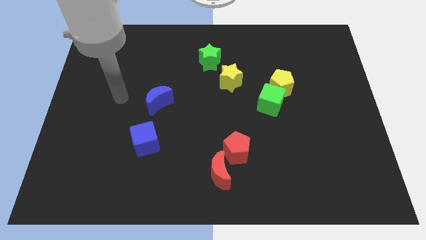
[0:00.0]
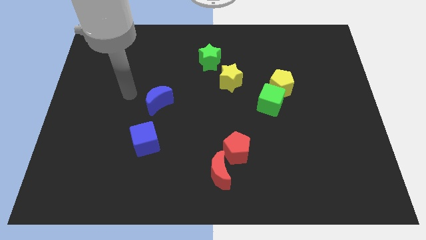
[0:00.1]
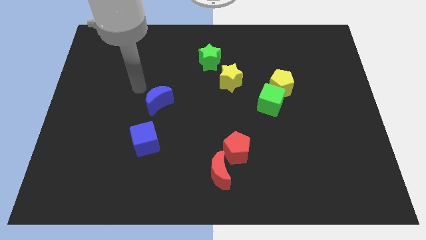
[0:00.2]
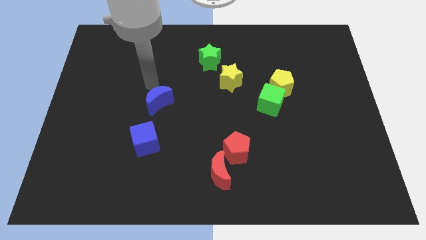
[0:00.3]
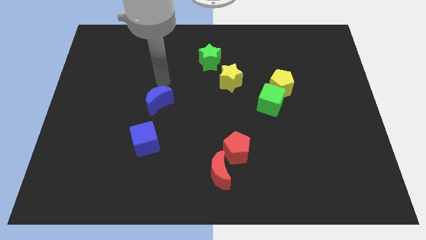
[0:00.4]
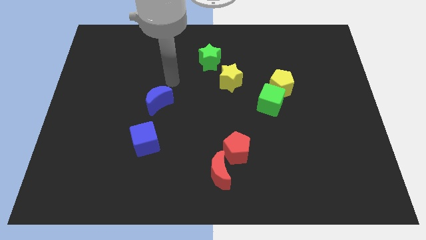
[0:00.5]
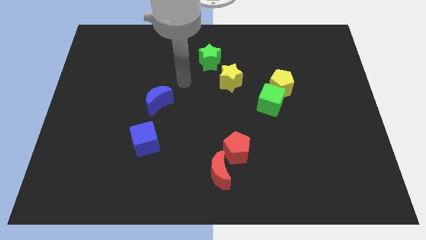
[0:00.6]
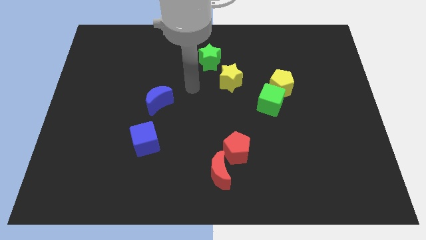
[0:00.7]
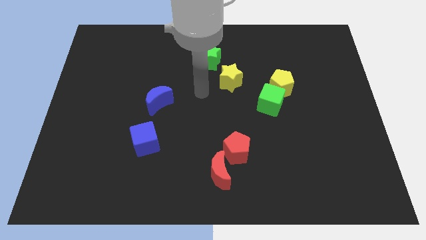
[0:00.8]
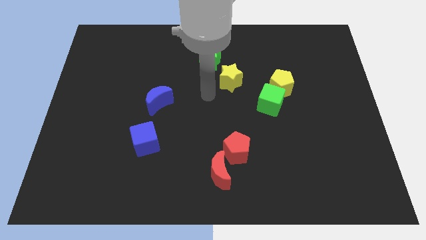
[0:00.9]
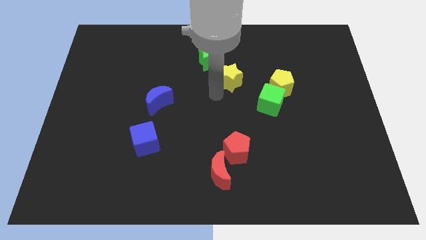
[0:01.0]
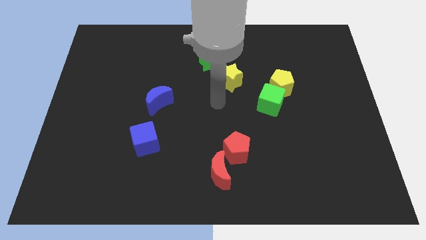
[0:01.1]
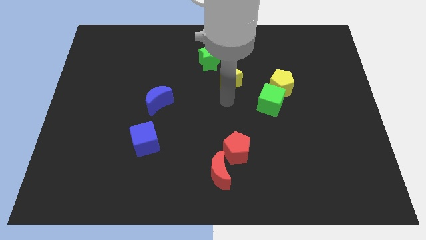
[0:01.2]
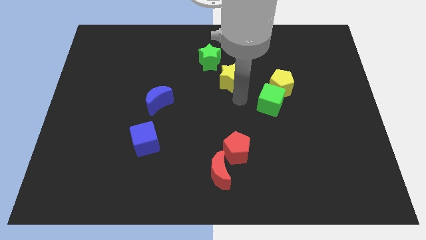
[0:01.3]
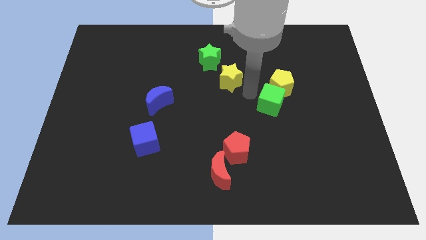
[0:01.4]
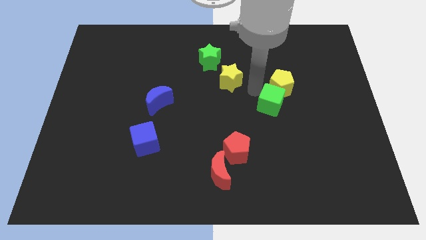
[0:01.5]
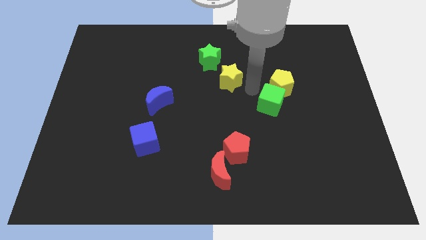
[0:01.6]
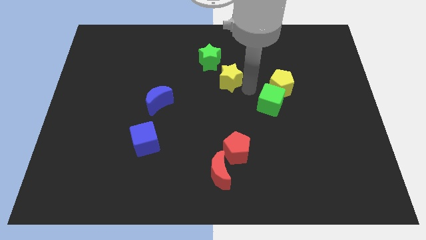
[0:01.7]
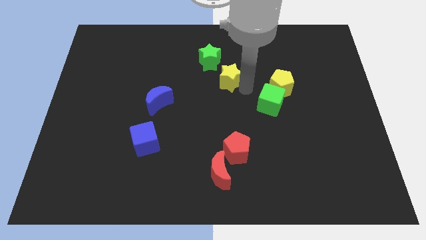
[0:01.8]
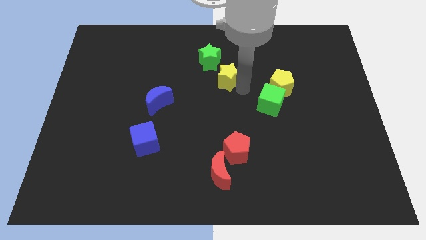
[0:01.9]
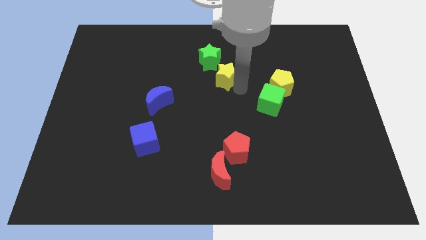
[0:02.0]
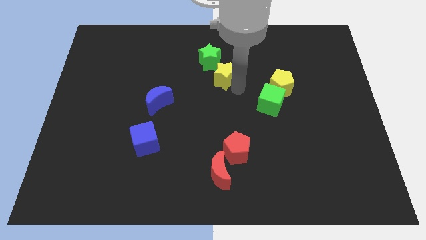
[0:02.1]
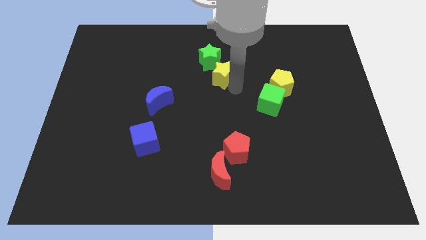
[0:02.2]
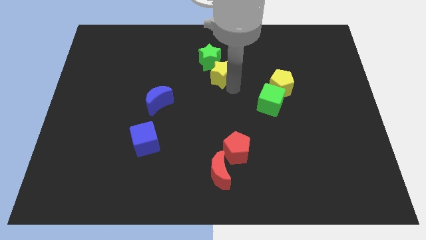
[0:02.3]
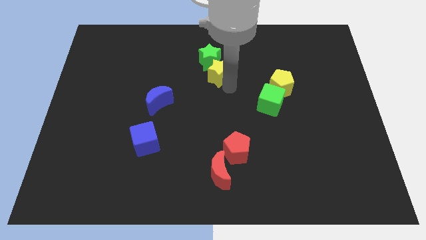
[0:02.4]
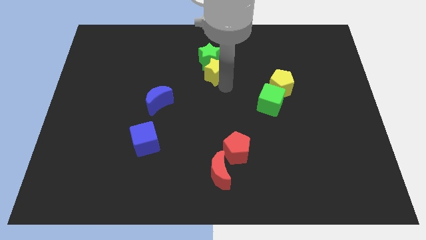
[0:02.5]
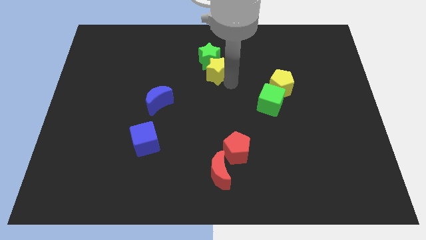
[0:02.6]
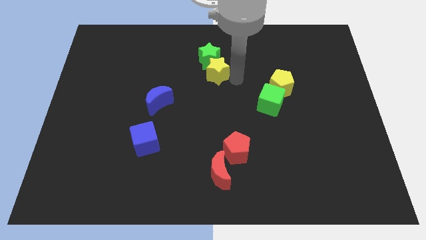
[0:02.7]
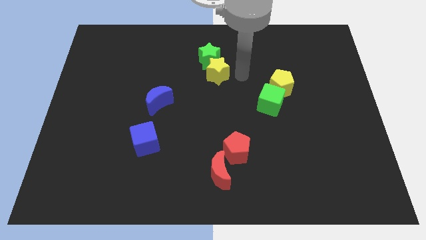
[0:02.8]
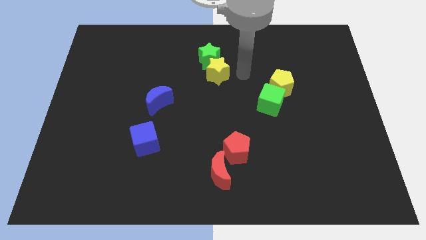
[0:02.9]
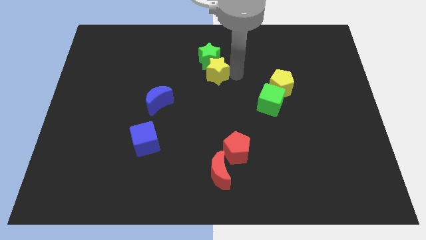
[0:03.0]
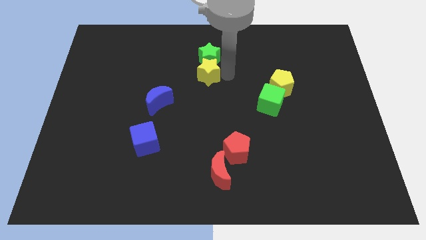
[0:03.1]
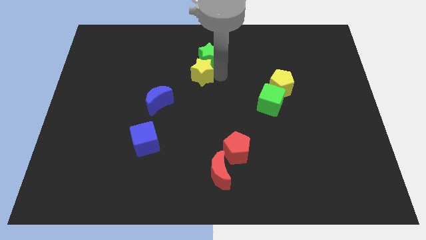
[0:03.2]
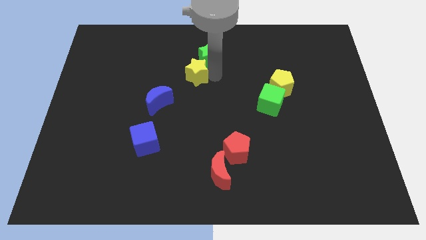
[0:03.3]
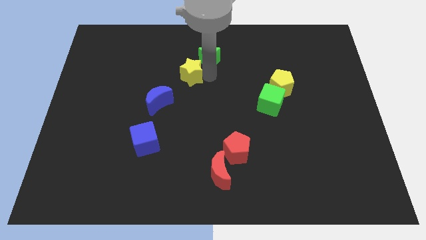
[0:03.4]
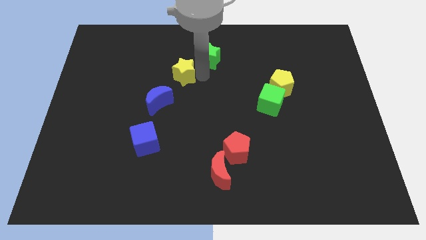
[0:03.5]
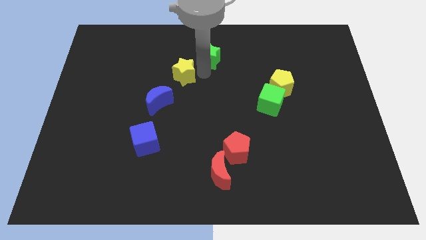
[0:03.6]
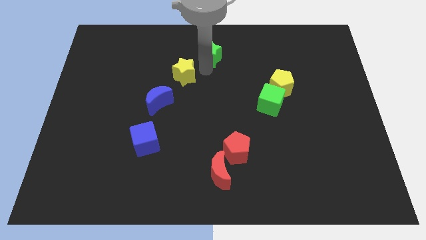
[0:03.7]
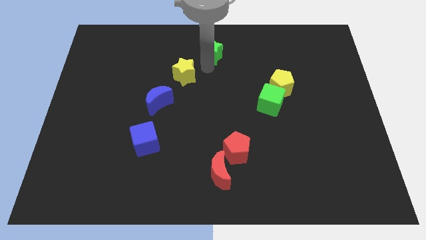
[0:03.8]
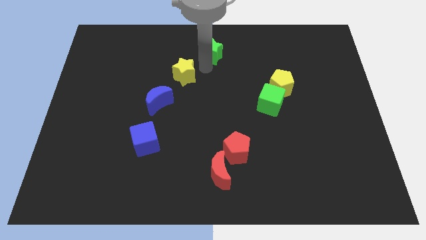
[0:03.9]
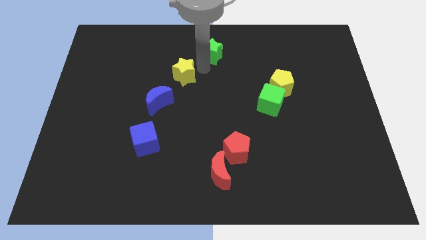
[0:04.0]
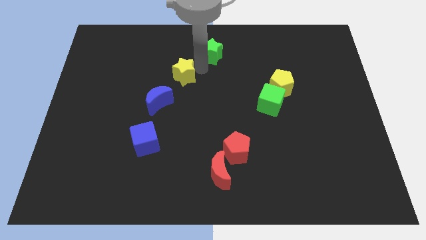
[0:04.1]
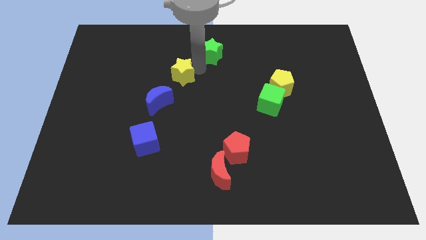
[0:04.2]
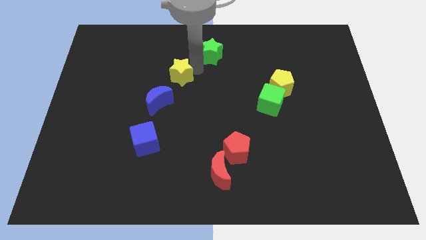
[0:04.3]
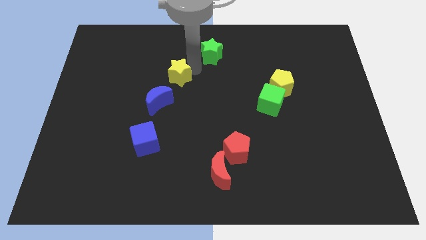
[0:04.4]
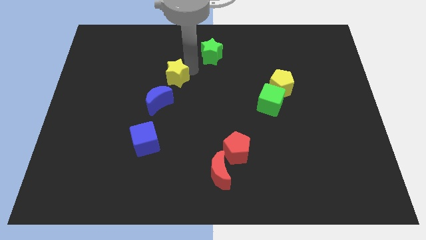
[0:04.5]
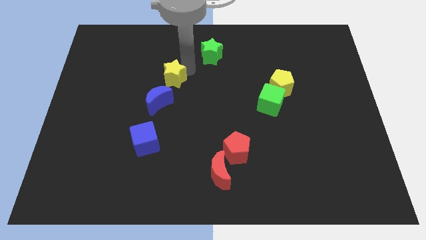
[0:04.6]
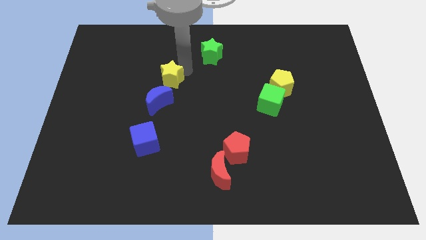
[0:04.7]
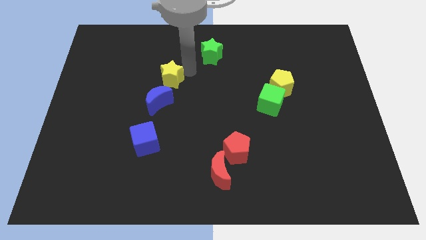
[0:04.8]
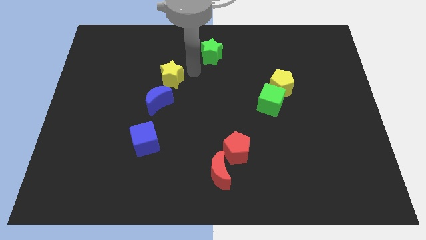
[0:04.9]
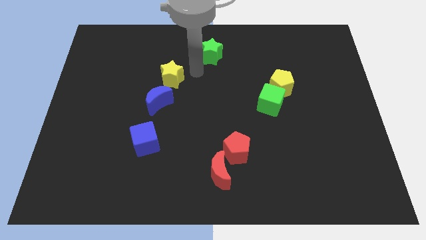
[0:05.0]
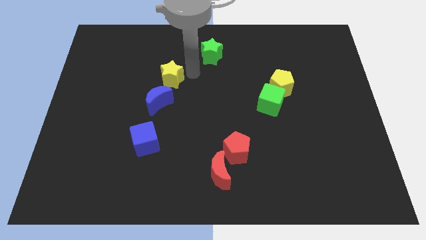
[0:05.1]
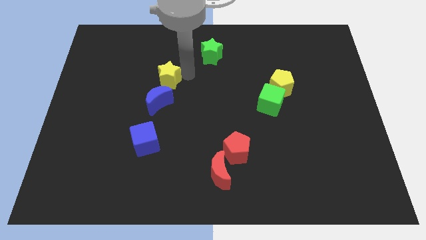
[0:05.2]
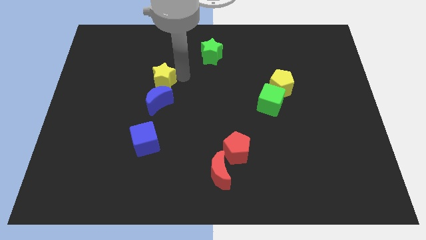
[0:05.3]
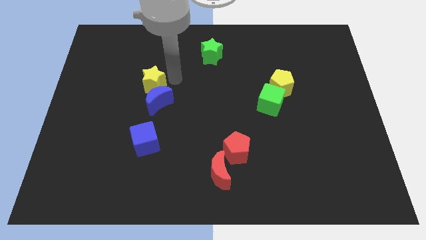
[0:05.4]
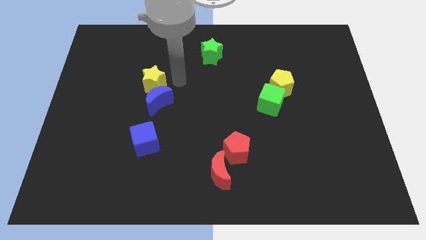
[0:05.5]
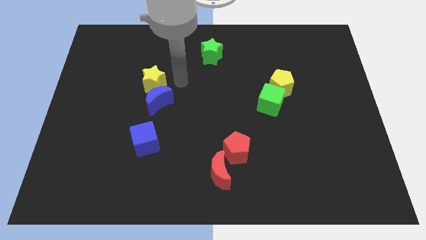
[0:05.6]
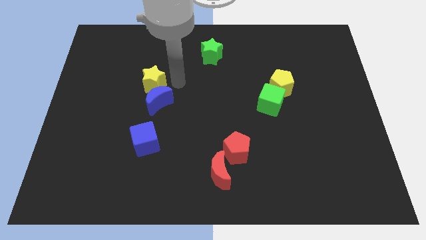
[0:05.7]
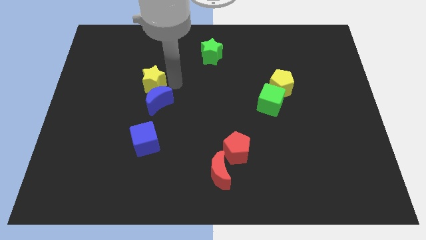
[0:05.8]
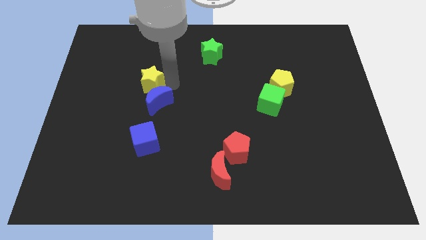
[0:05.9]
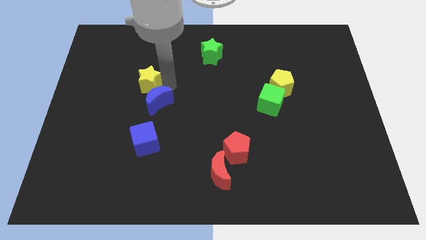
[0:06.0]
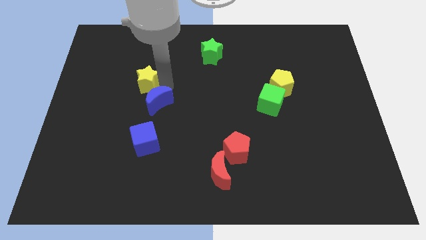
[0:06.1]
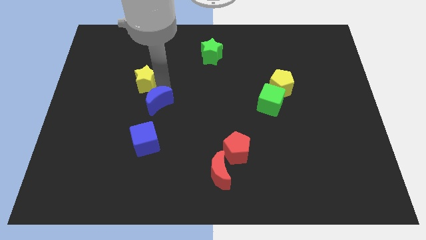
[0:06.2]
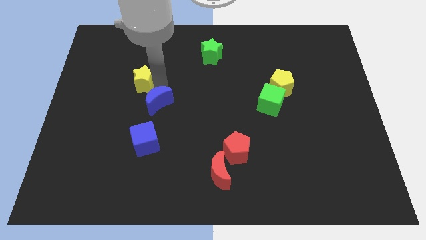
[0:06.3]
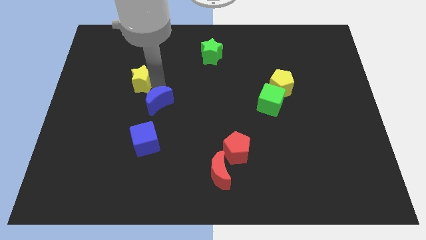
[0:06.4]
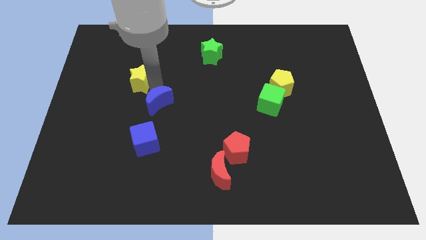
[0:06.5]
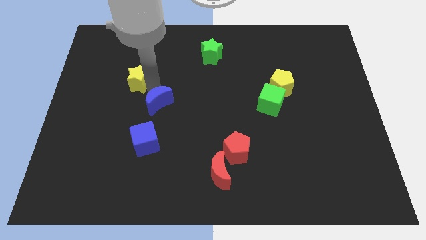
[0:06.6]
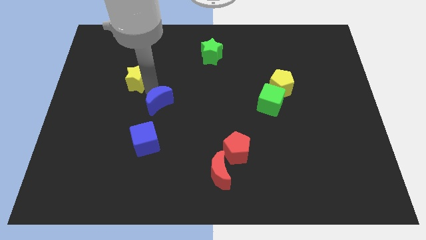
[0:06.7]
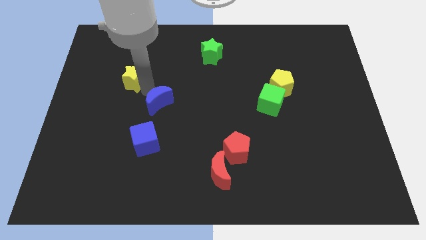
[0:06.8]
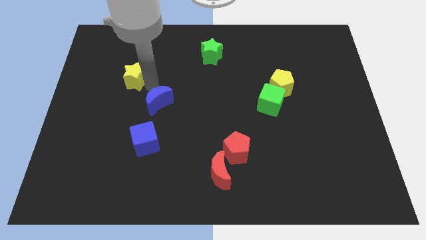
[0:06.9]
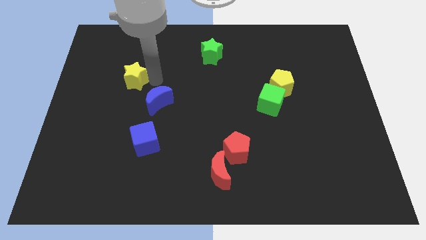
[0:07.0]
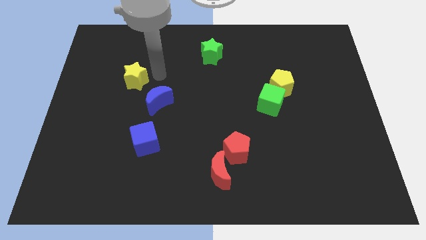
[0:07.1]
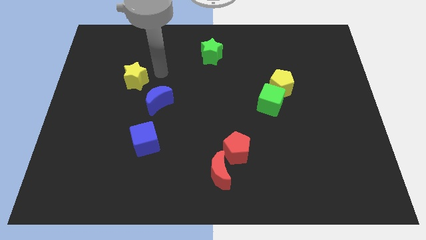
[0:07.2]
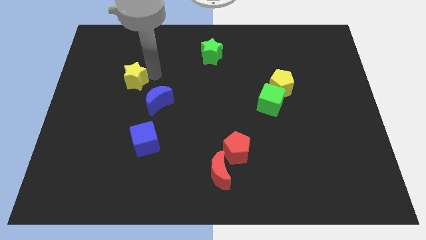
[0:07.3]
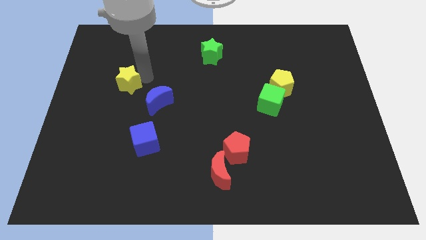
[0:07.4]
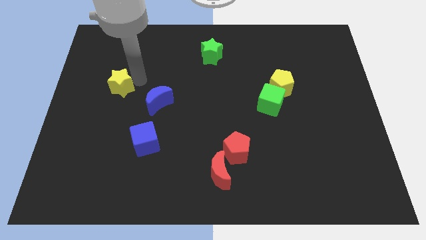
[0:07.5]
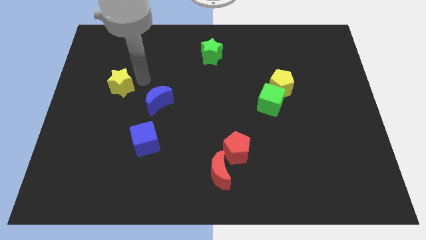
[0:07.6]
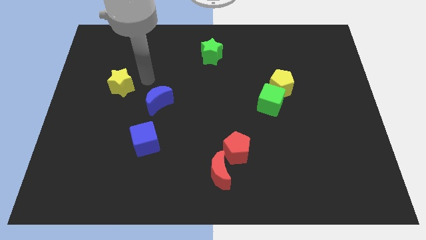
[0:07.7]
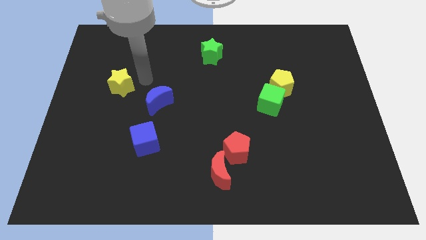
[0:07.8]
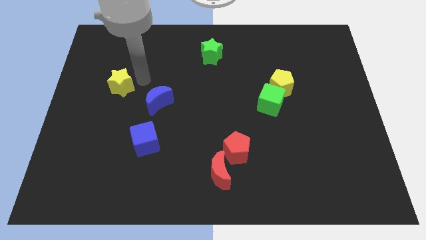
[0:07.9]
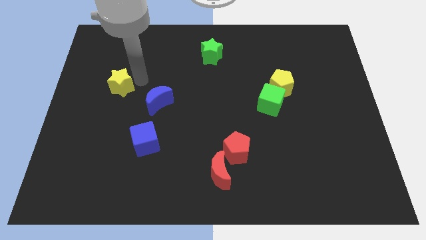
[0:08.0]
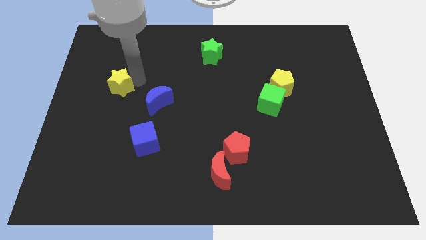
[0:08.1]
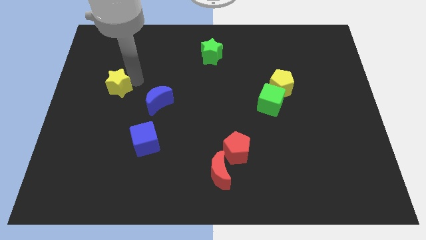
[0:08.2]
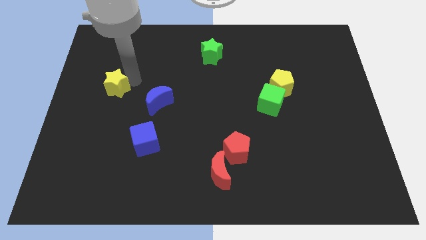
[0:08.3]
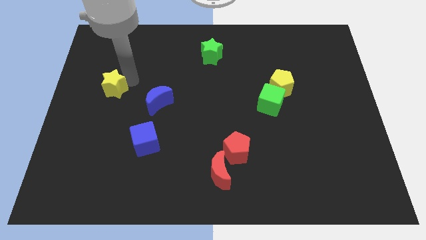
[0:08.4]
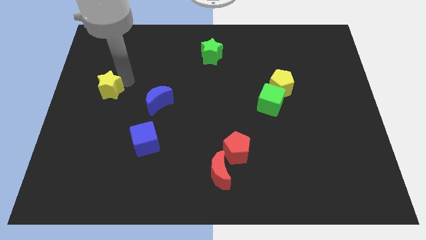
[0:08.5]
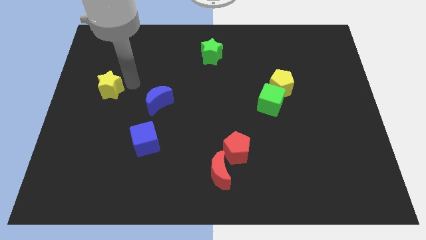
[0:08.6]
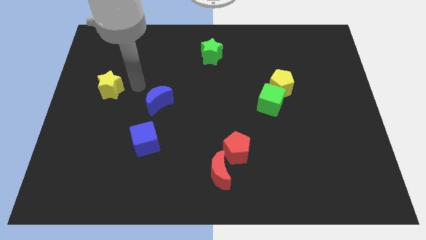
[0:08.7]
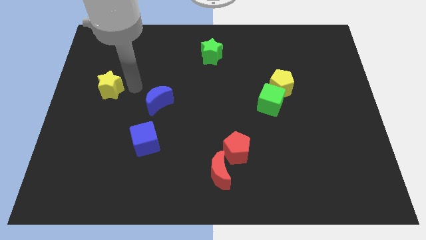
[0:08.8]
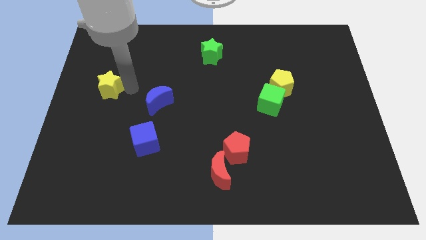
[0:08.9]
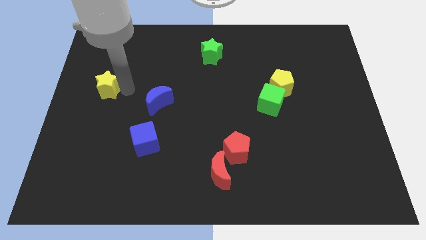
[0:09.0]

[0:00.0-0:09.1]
put the yellow star to the left side
